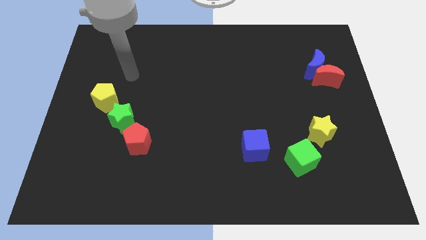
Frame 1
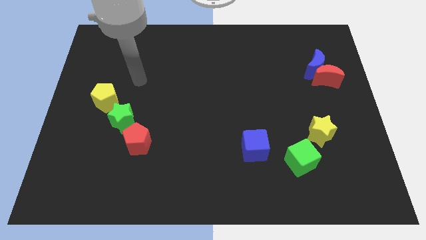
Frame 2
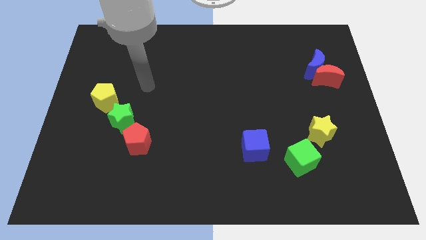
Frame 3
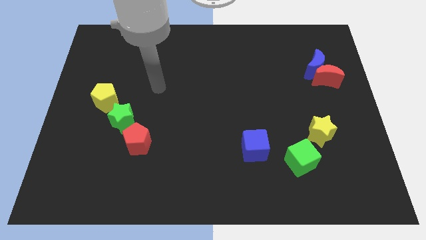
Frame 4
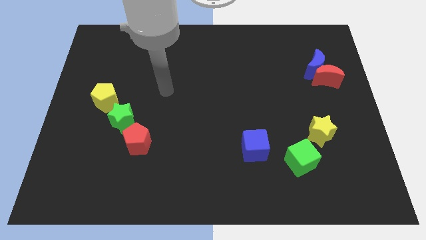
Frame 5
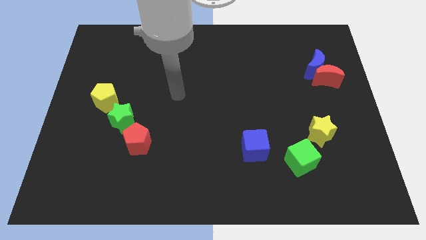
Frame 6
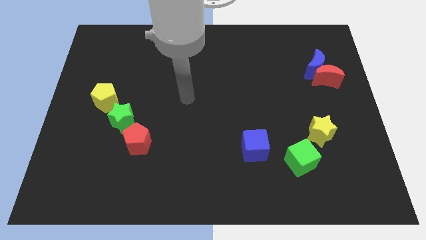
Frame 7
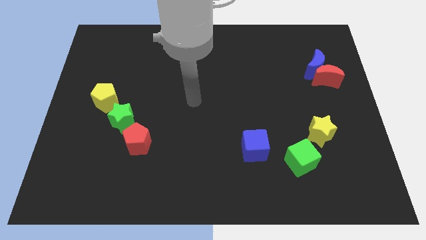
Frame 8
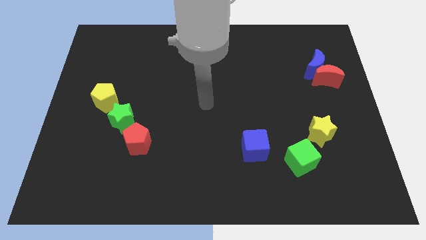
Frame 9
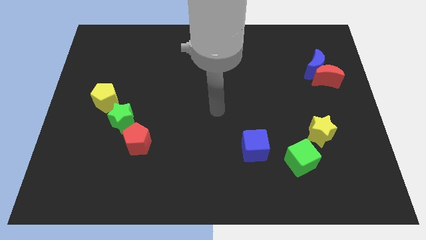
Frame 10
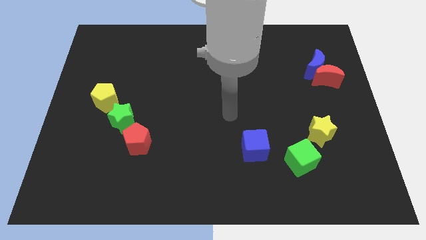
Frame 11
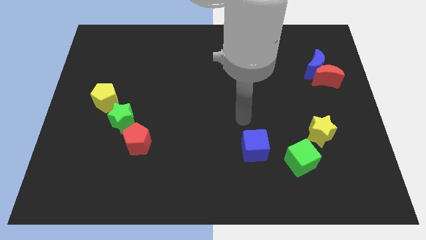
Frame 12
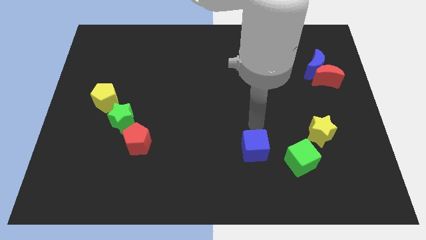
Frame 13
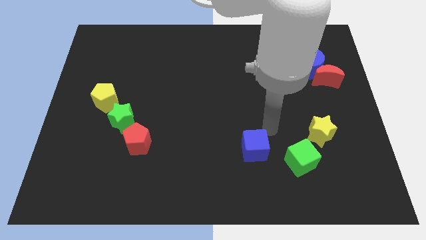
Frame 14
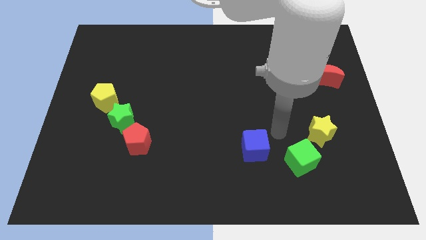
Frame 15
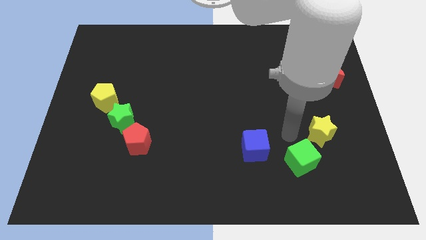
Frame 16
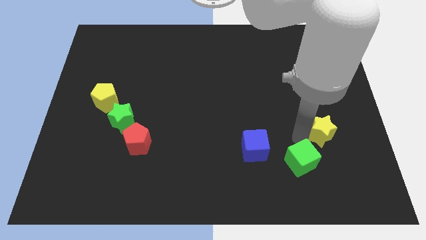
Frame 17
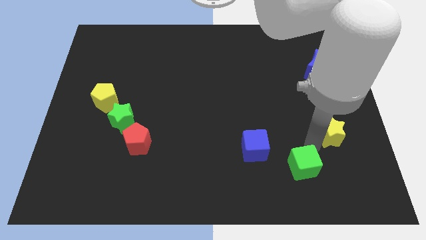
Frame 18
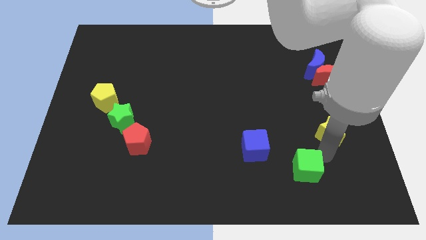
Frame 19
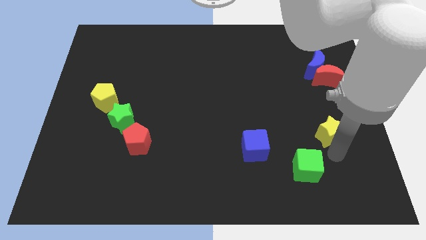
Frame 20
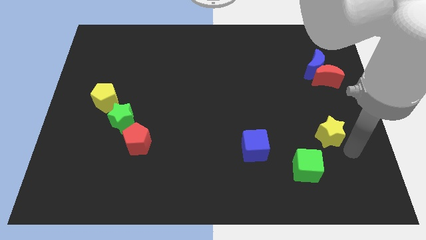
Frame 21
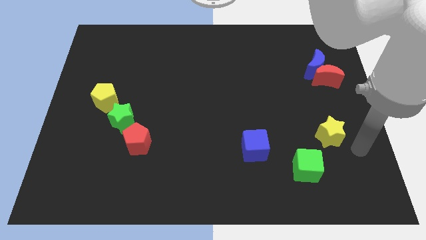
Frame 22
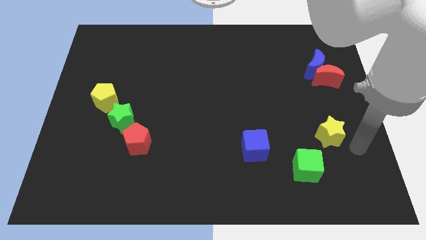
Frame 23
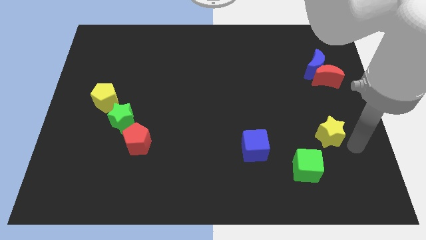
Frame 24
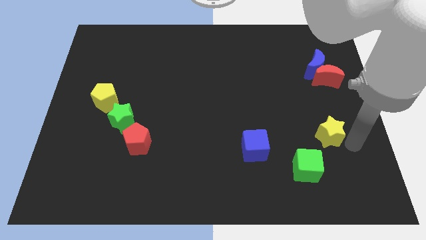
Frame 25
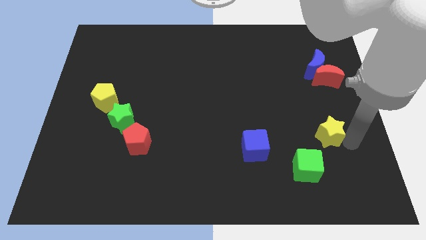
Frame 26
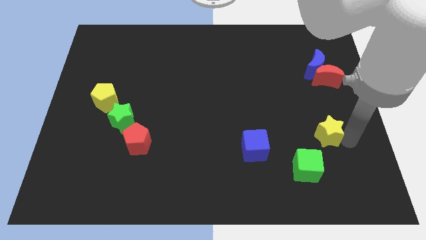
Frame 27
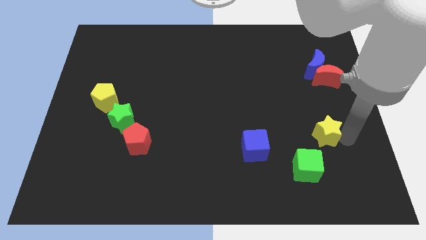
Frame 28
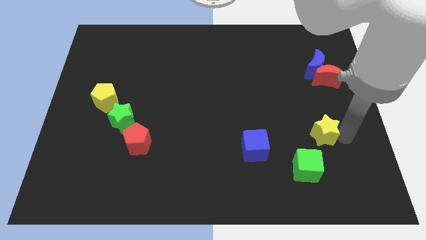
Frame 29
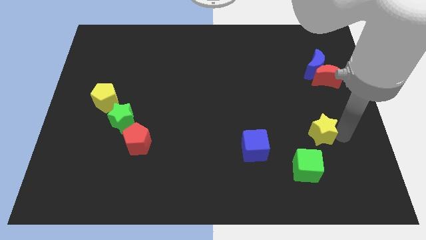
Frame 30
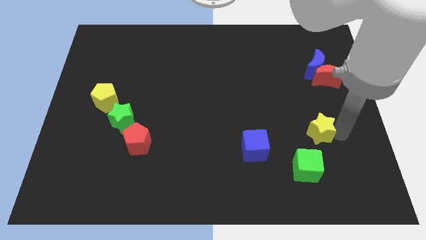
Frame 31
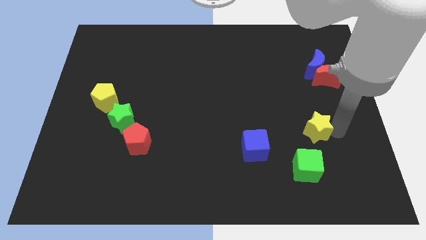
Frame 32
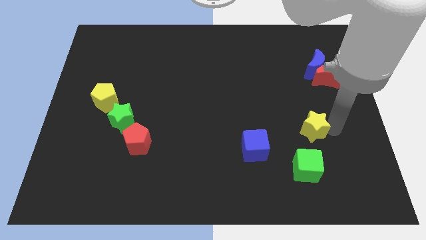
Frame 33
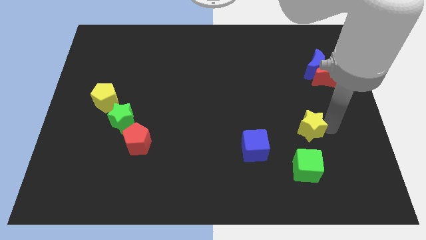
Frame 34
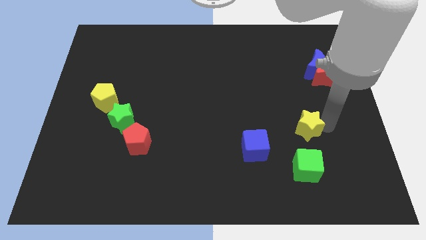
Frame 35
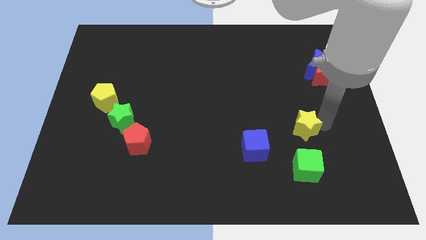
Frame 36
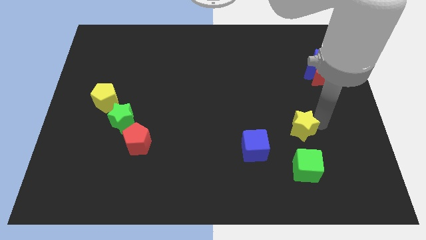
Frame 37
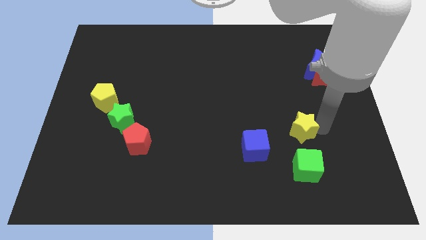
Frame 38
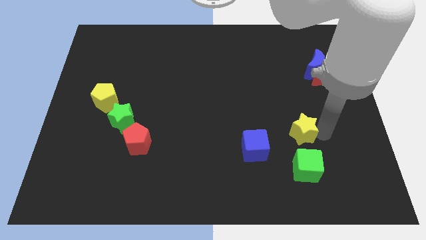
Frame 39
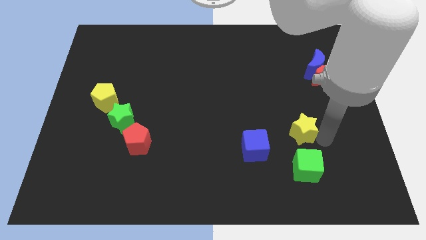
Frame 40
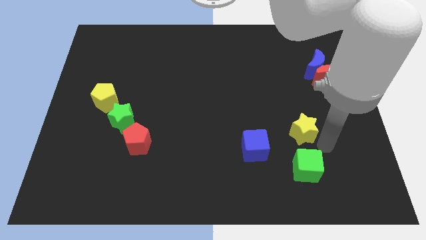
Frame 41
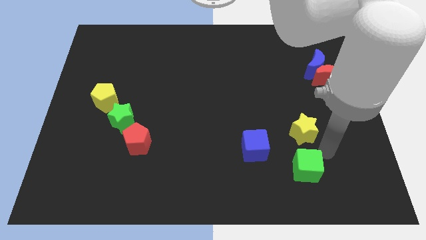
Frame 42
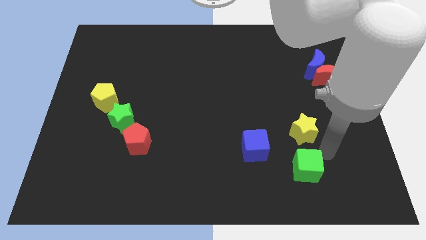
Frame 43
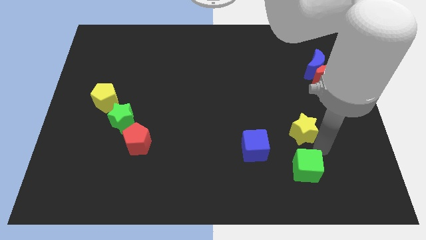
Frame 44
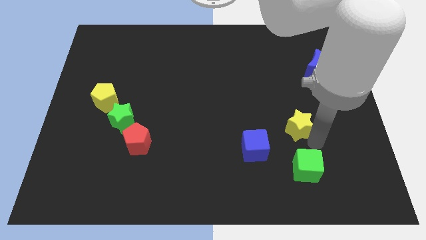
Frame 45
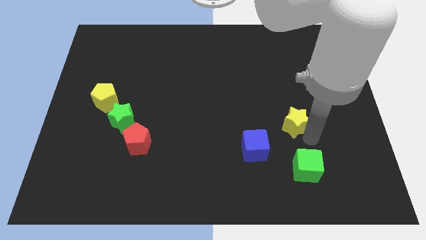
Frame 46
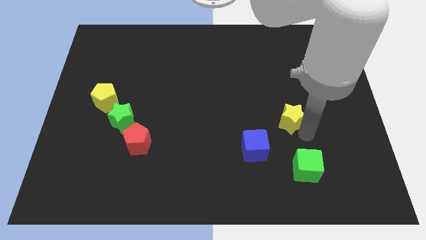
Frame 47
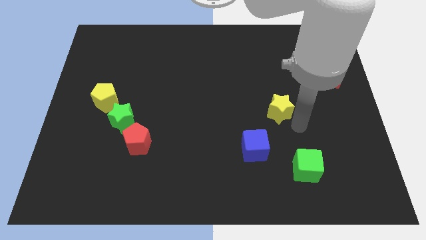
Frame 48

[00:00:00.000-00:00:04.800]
slightly slide the yellow star to the left

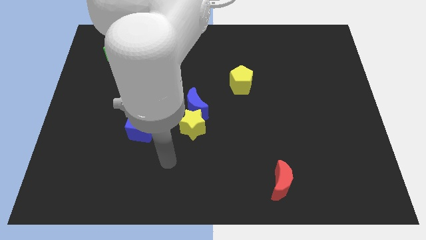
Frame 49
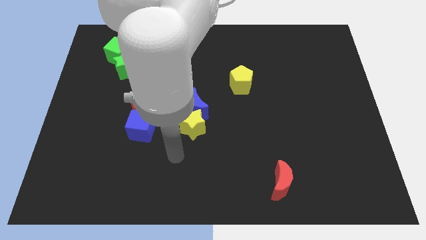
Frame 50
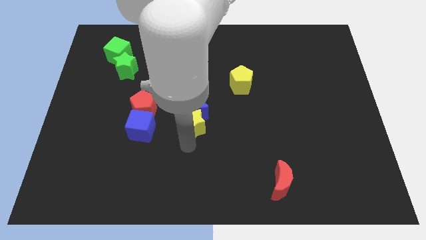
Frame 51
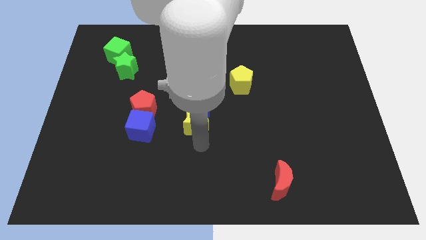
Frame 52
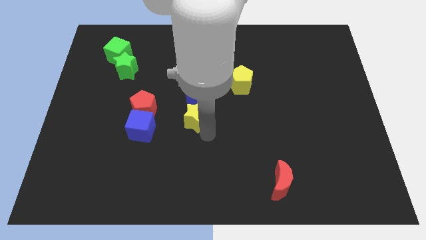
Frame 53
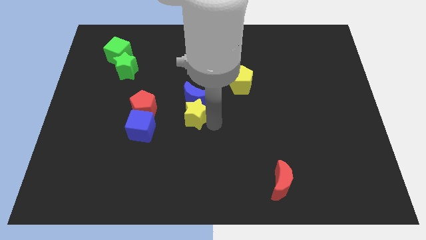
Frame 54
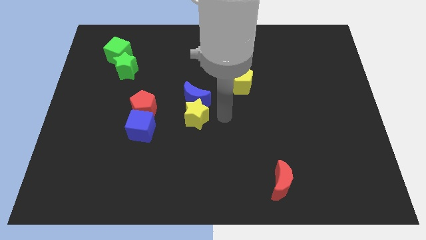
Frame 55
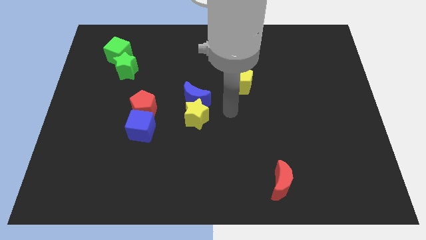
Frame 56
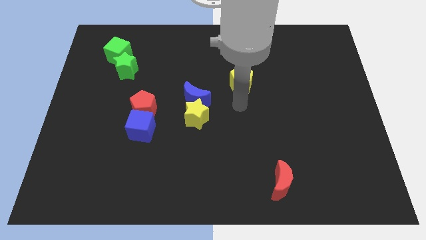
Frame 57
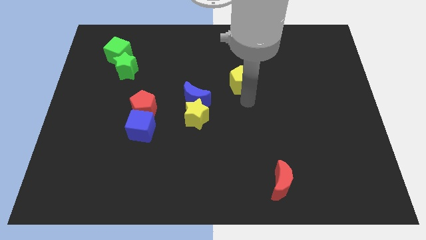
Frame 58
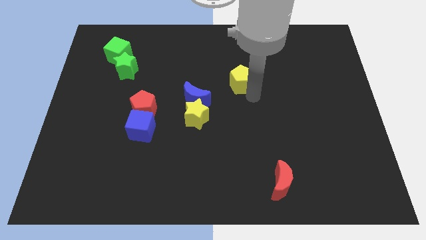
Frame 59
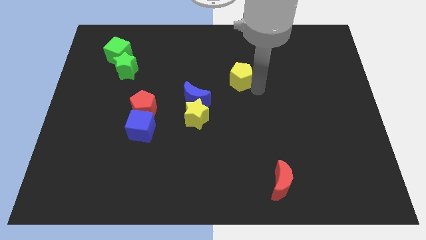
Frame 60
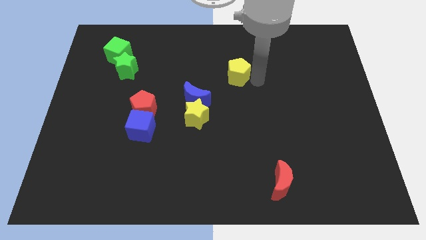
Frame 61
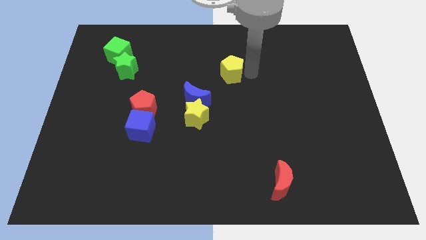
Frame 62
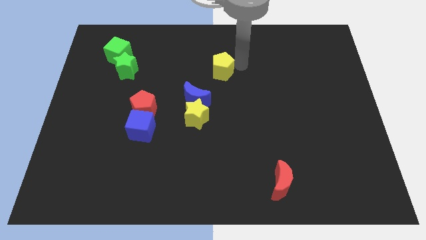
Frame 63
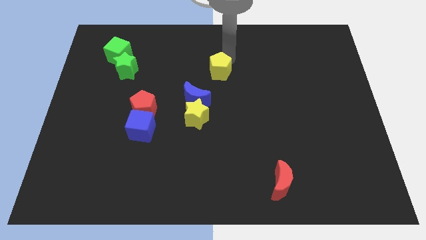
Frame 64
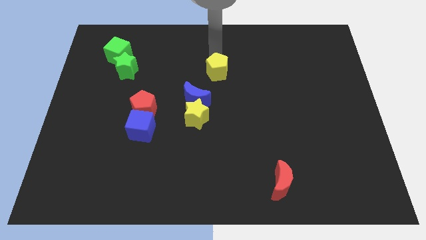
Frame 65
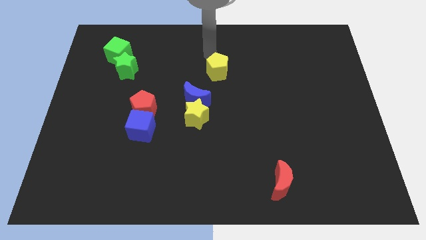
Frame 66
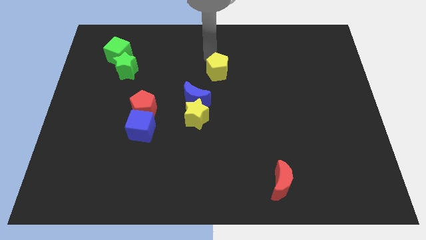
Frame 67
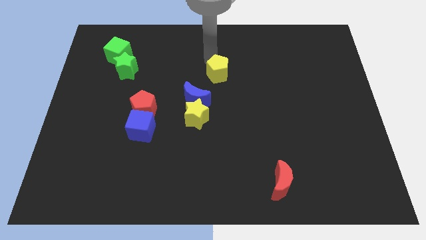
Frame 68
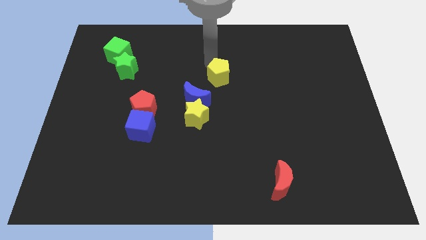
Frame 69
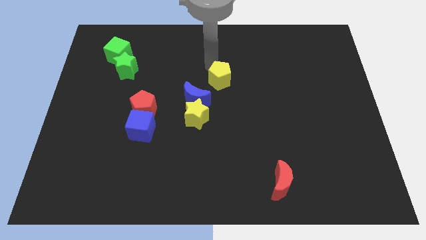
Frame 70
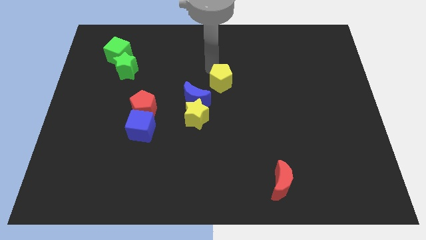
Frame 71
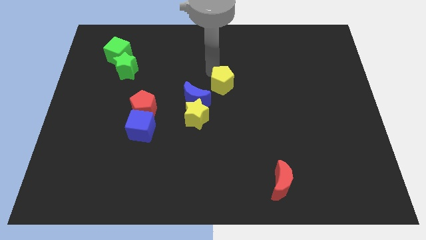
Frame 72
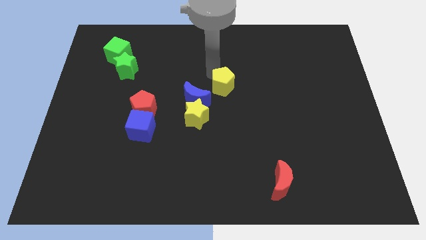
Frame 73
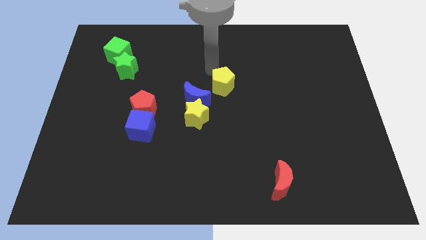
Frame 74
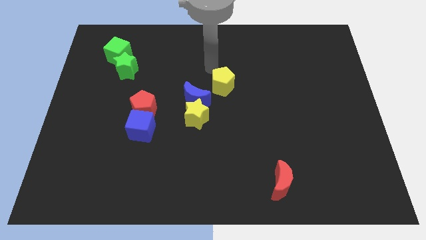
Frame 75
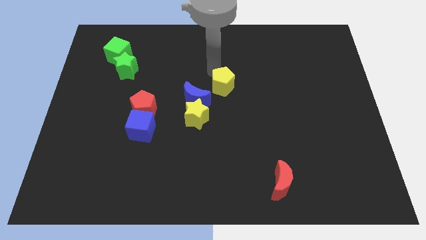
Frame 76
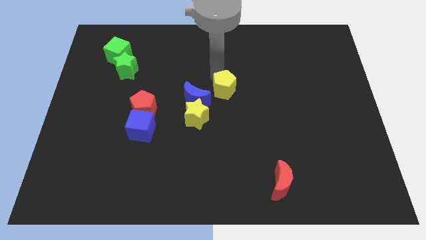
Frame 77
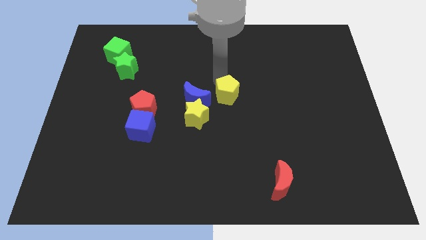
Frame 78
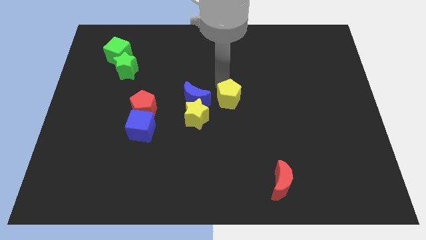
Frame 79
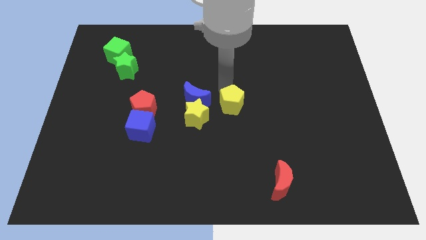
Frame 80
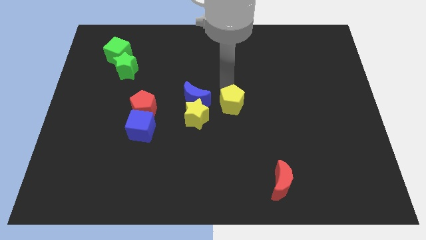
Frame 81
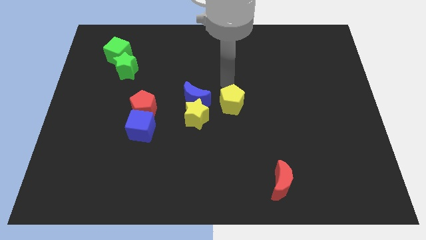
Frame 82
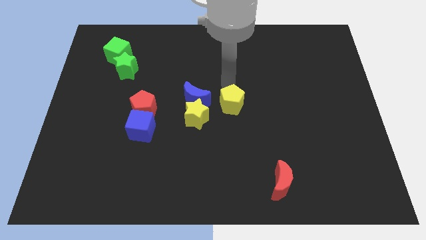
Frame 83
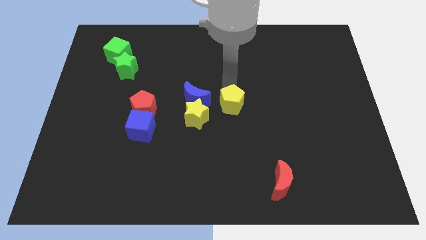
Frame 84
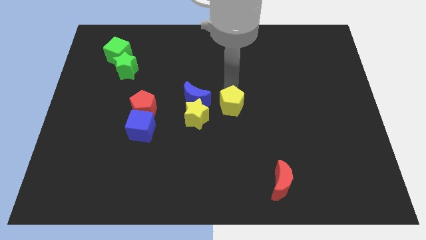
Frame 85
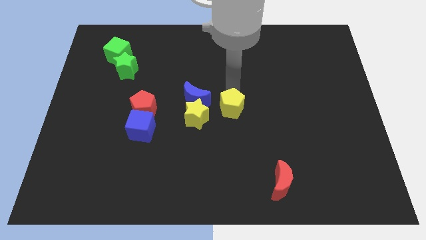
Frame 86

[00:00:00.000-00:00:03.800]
slightly slide the yellow pentagon down
